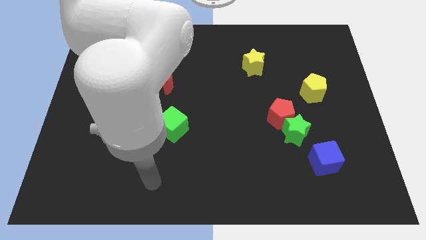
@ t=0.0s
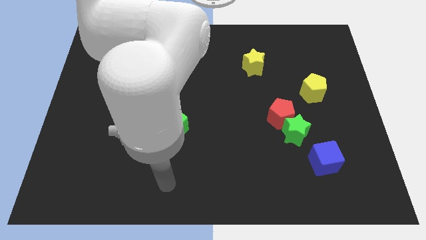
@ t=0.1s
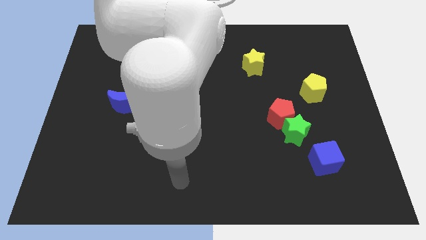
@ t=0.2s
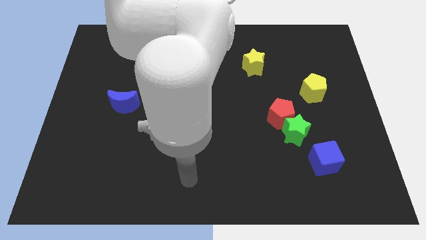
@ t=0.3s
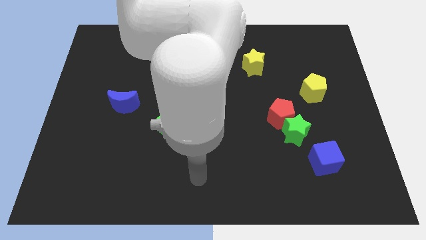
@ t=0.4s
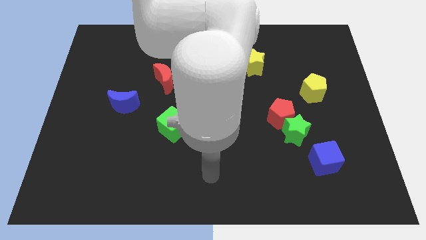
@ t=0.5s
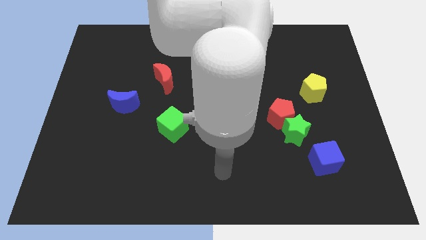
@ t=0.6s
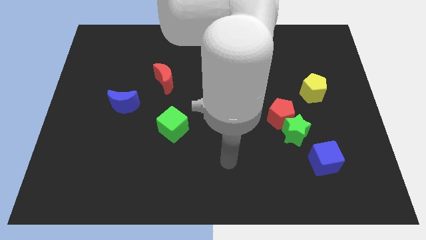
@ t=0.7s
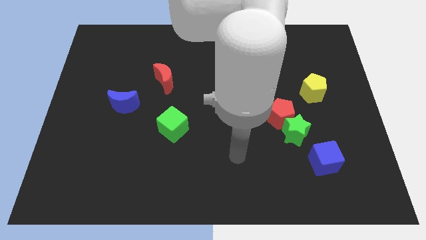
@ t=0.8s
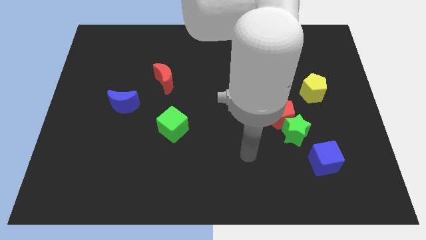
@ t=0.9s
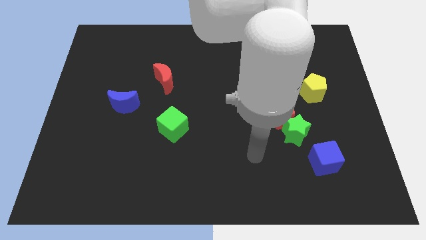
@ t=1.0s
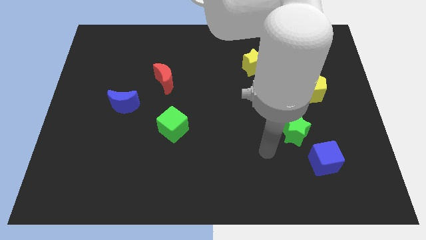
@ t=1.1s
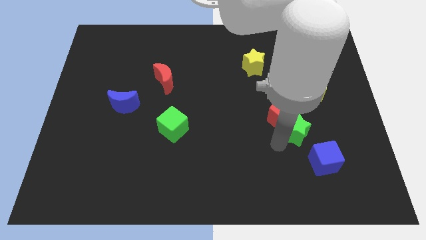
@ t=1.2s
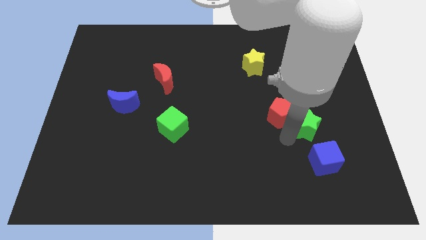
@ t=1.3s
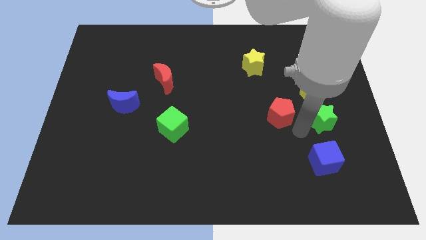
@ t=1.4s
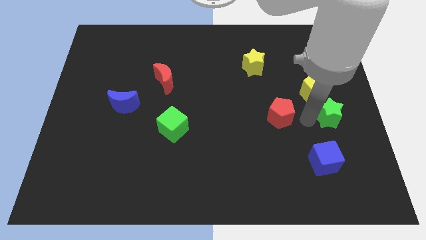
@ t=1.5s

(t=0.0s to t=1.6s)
separate the red pentagon from the green star

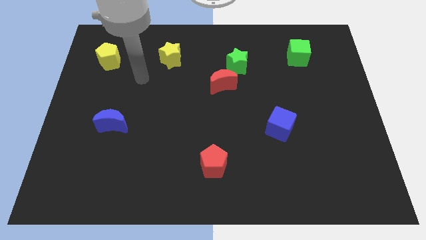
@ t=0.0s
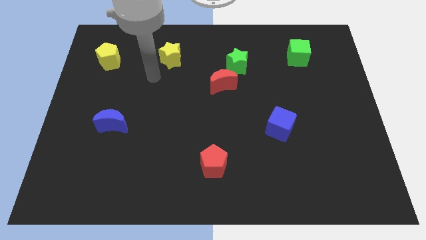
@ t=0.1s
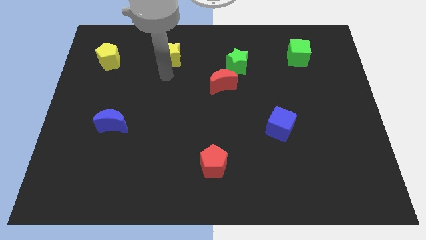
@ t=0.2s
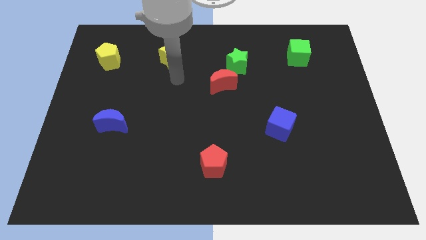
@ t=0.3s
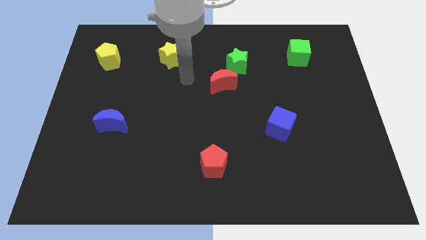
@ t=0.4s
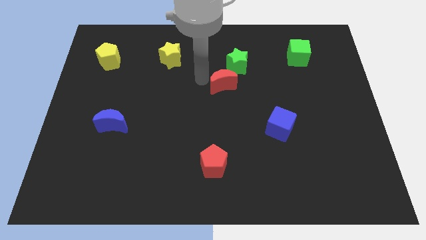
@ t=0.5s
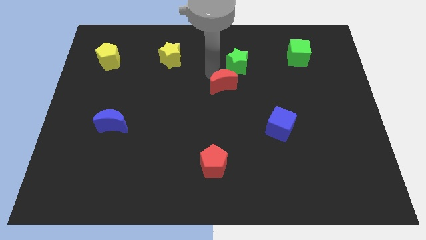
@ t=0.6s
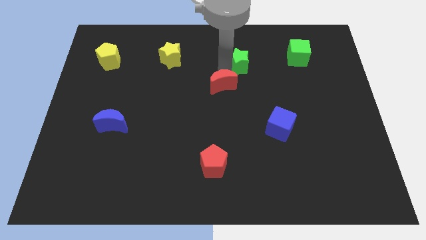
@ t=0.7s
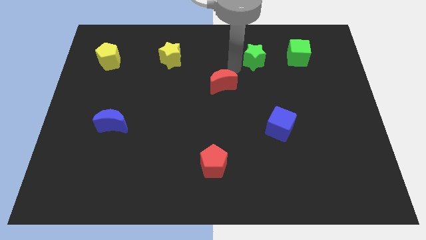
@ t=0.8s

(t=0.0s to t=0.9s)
move the red moon away from the green star

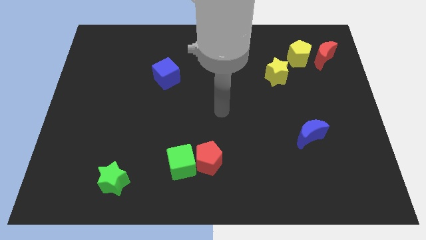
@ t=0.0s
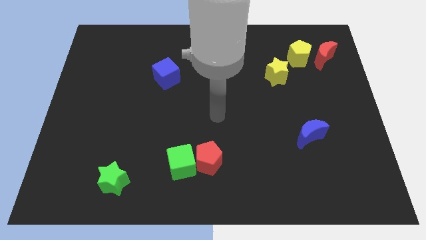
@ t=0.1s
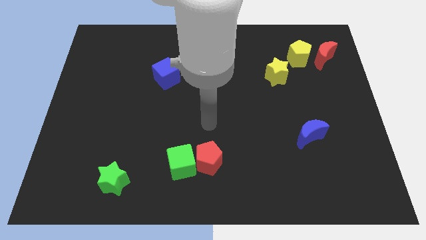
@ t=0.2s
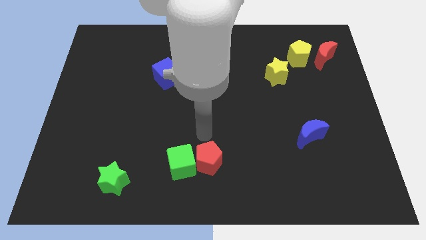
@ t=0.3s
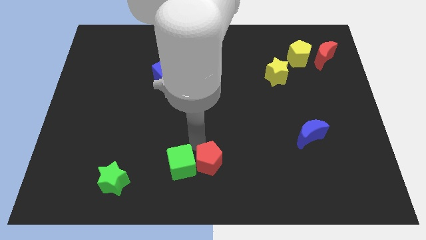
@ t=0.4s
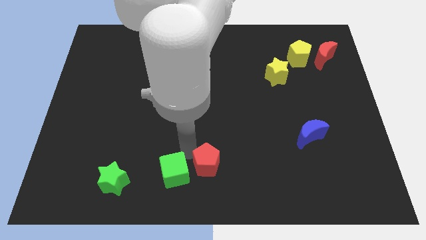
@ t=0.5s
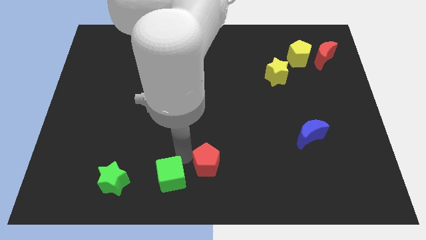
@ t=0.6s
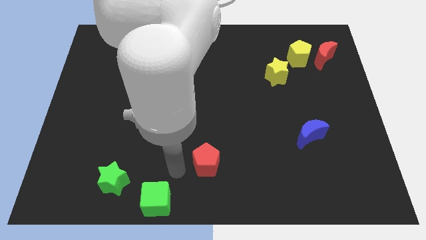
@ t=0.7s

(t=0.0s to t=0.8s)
move the red pentagon away from the green cube

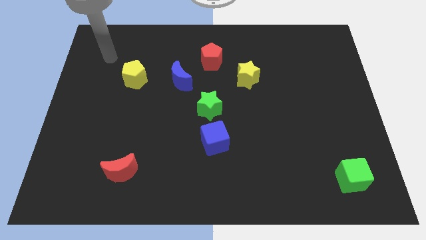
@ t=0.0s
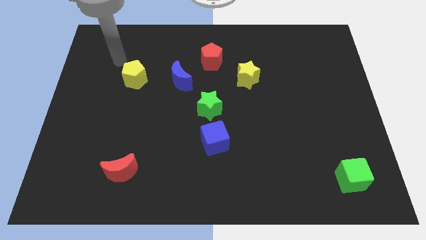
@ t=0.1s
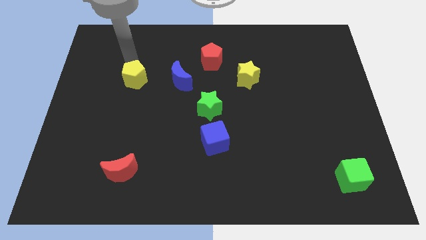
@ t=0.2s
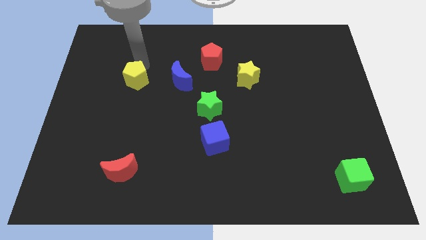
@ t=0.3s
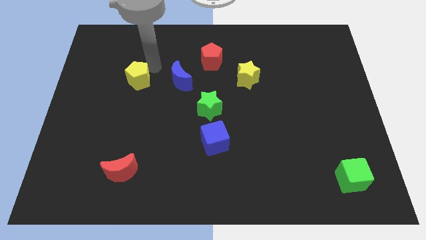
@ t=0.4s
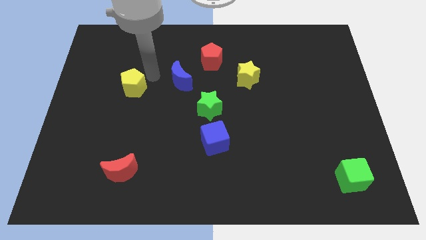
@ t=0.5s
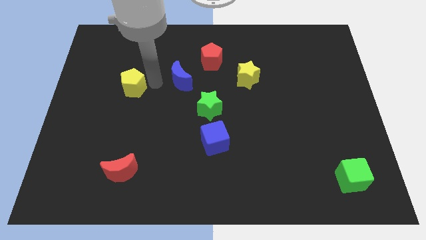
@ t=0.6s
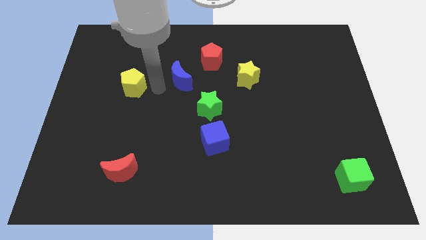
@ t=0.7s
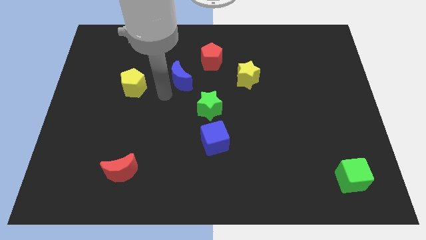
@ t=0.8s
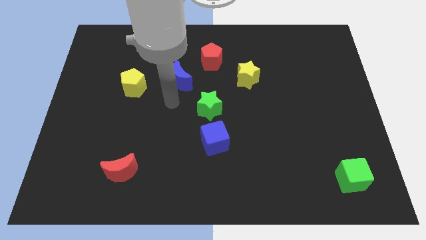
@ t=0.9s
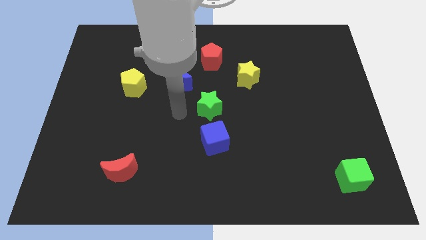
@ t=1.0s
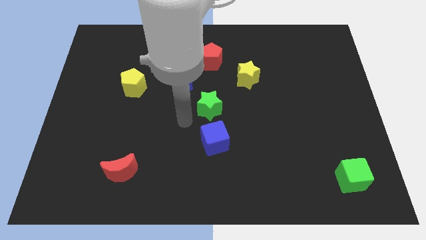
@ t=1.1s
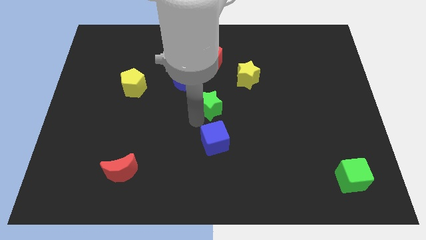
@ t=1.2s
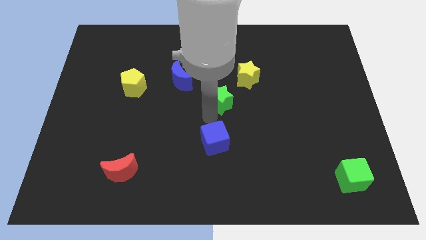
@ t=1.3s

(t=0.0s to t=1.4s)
separate the blue cube from the green star

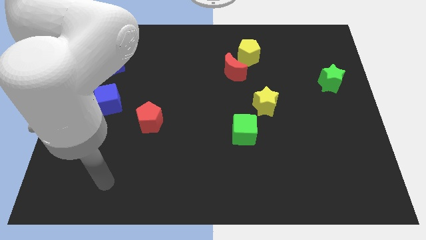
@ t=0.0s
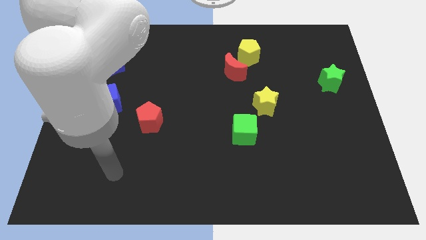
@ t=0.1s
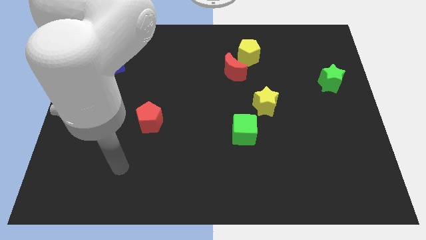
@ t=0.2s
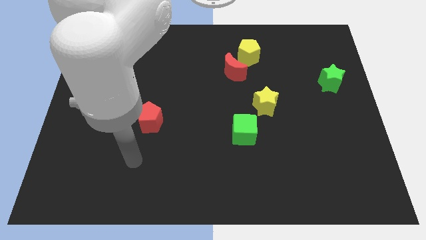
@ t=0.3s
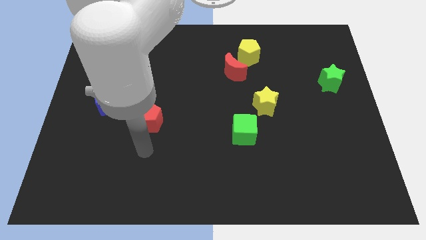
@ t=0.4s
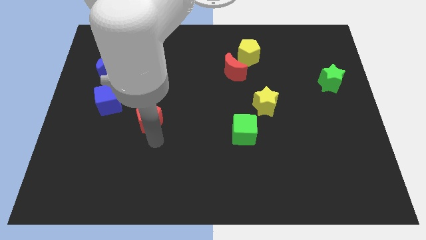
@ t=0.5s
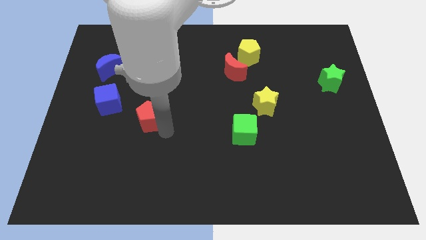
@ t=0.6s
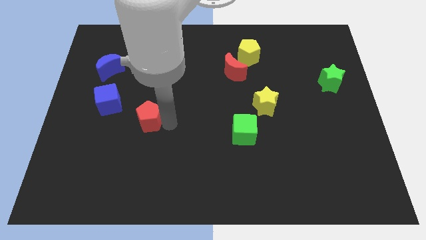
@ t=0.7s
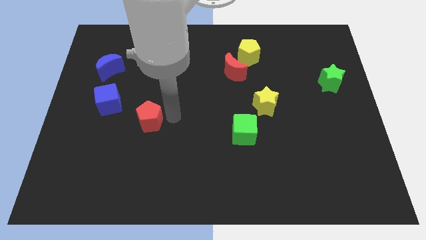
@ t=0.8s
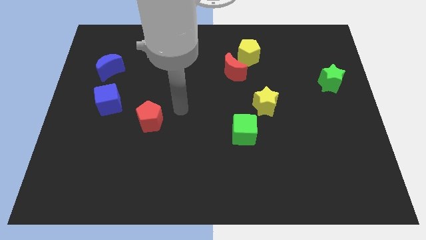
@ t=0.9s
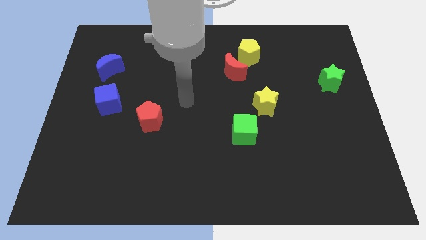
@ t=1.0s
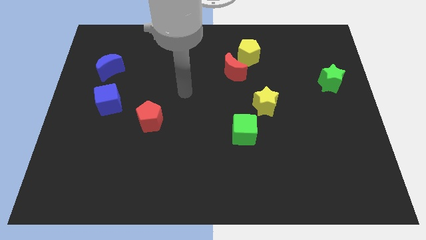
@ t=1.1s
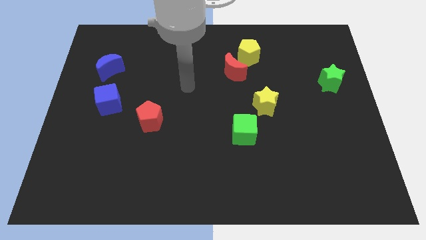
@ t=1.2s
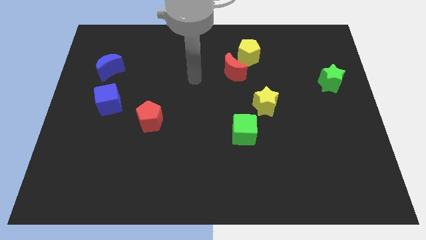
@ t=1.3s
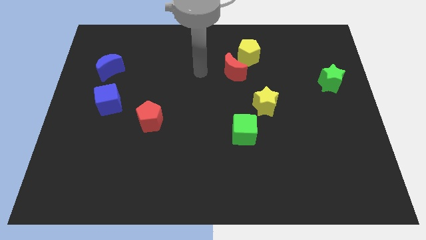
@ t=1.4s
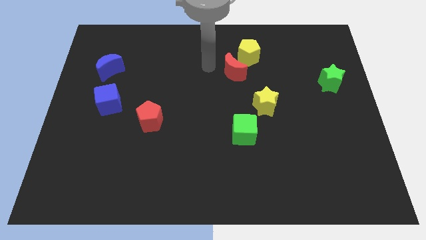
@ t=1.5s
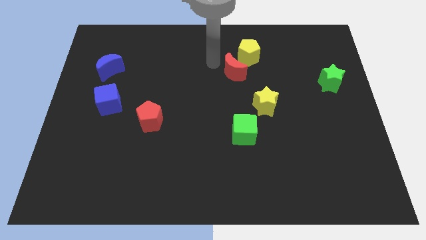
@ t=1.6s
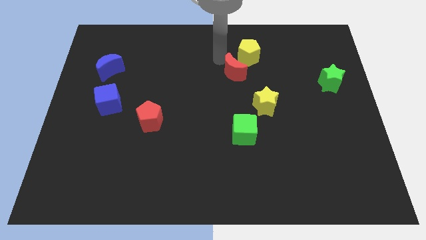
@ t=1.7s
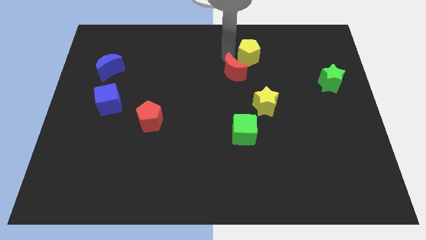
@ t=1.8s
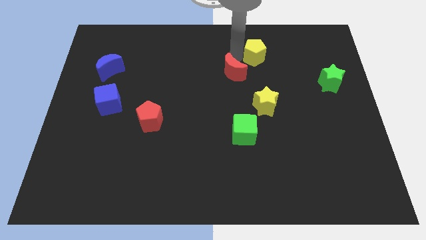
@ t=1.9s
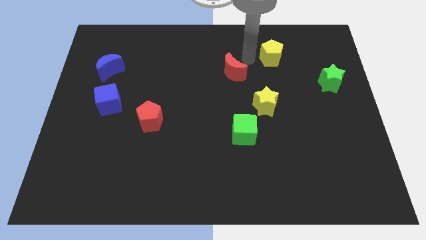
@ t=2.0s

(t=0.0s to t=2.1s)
separate the red moon from the yellow pentagon

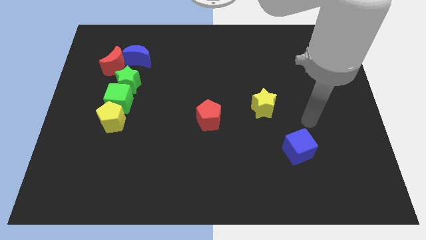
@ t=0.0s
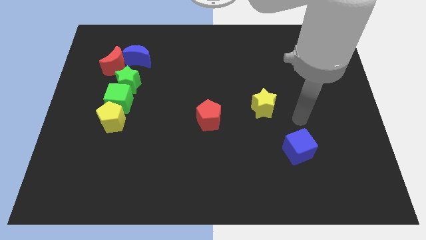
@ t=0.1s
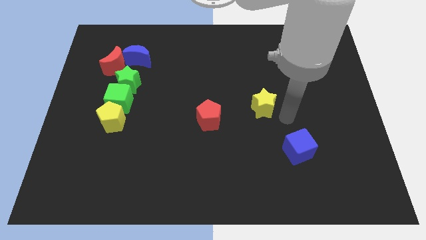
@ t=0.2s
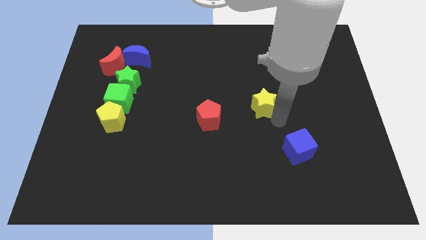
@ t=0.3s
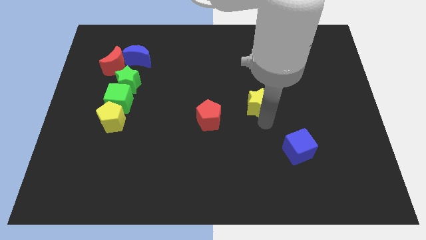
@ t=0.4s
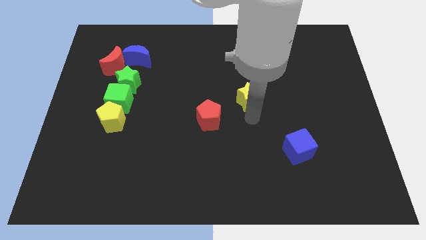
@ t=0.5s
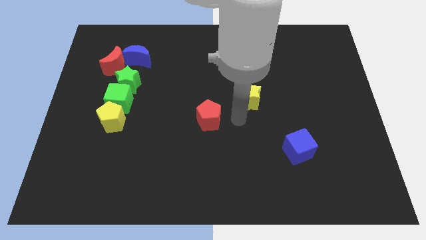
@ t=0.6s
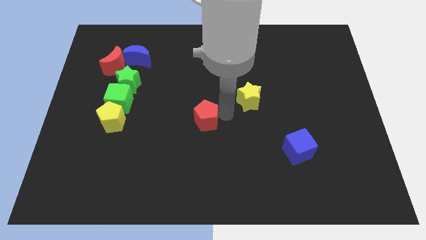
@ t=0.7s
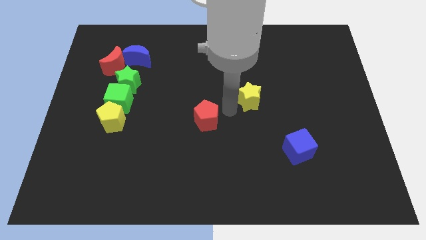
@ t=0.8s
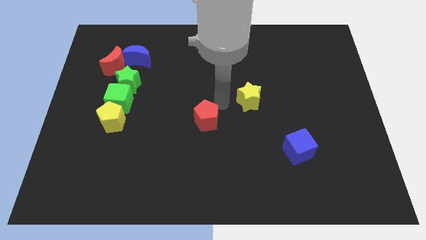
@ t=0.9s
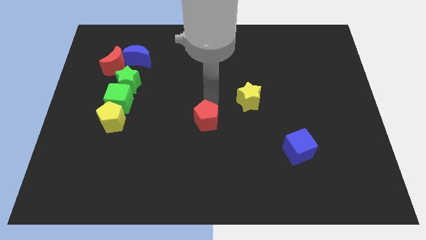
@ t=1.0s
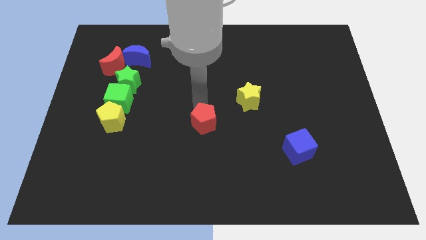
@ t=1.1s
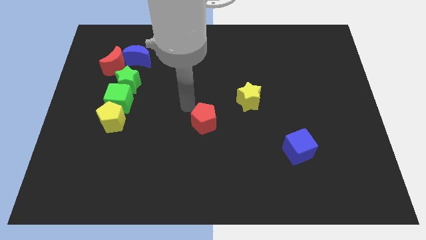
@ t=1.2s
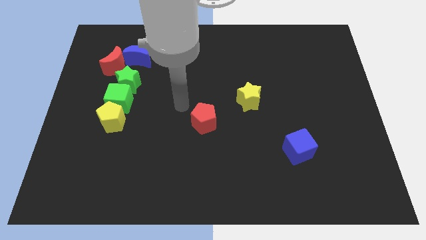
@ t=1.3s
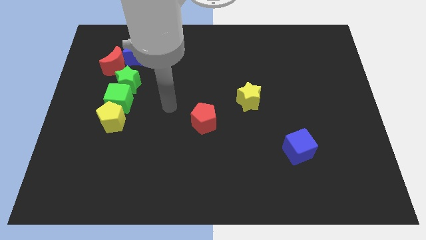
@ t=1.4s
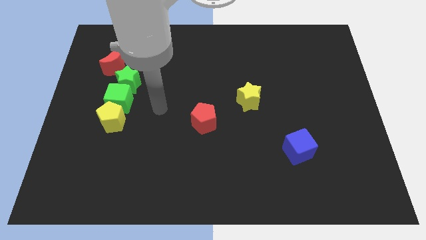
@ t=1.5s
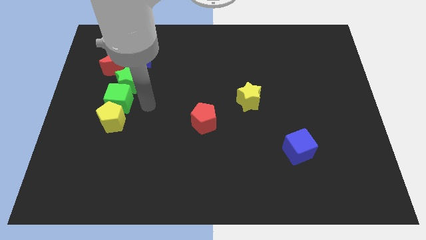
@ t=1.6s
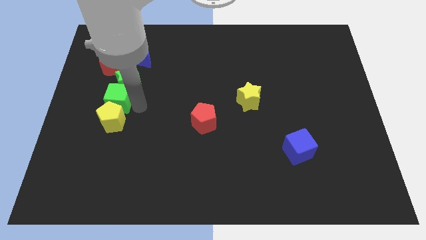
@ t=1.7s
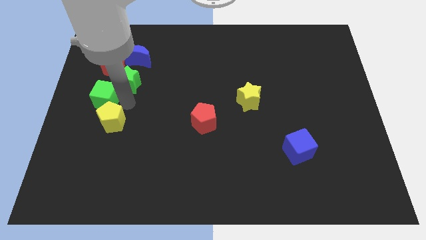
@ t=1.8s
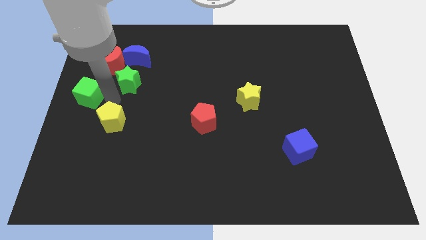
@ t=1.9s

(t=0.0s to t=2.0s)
move the yellow pentagon away from the green cube

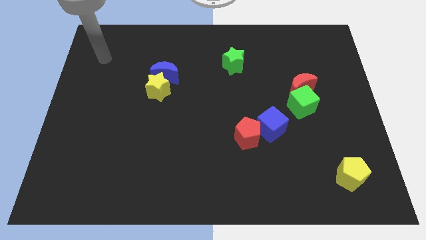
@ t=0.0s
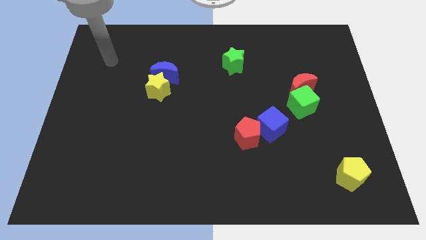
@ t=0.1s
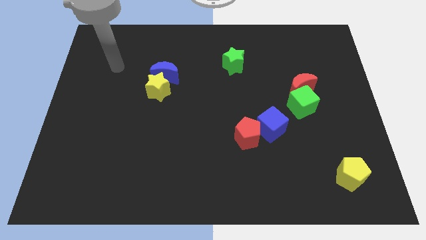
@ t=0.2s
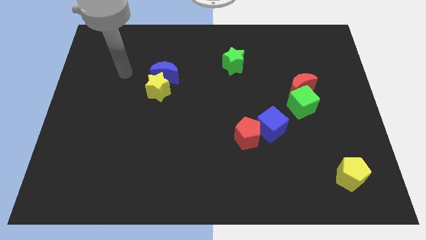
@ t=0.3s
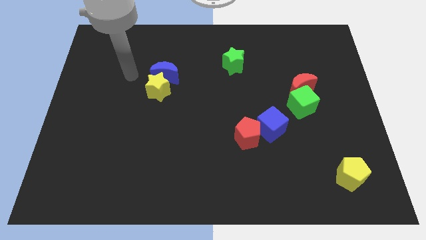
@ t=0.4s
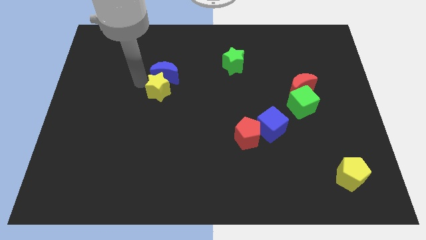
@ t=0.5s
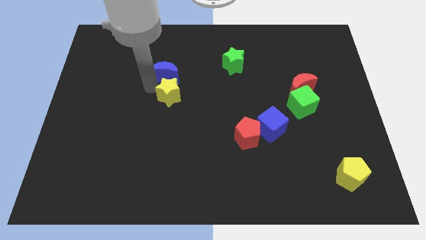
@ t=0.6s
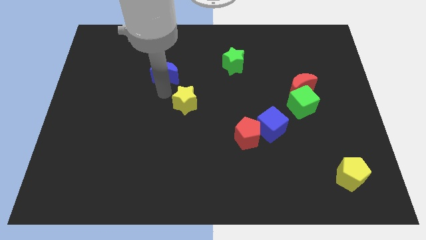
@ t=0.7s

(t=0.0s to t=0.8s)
pull the blue moon apart from the yellow star
